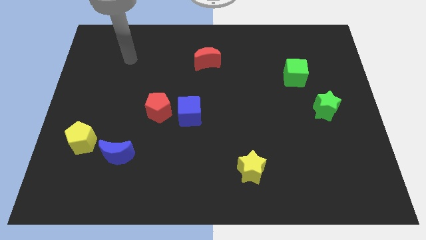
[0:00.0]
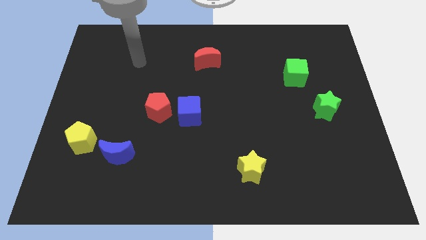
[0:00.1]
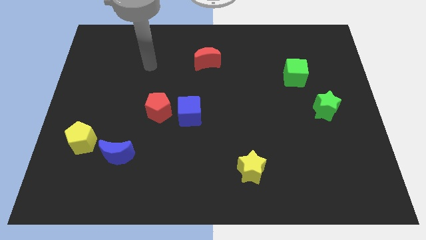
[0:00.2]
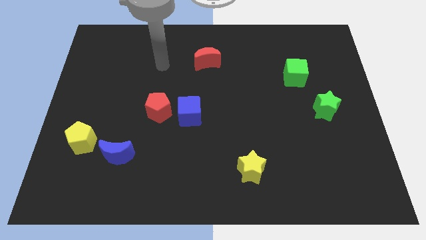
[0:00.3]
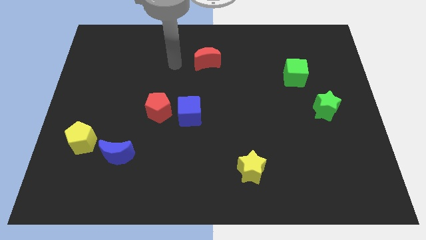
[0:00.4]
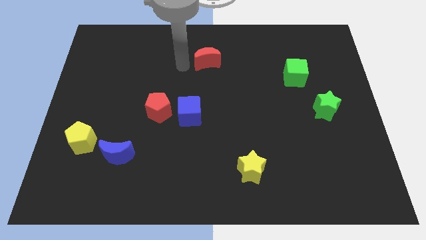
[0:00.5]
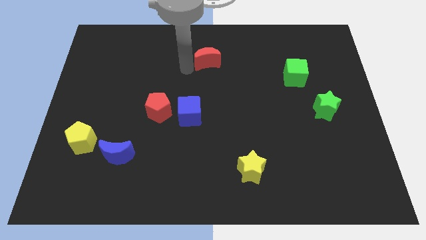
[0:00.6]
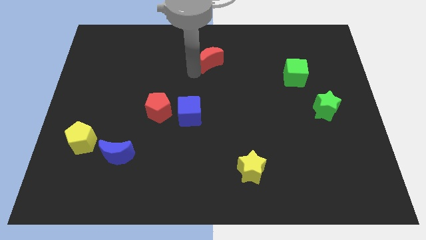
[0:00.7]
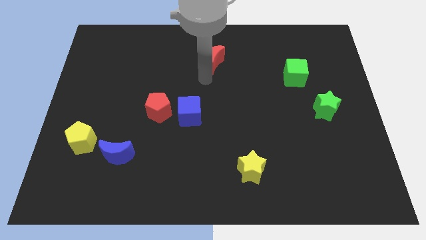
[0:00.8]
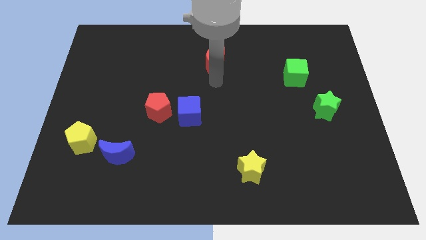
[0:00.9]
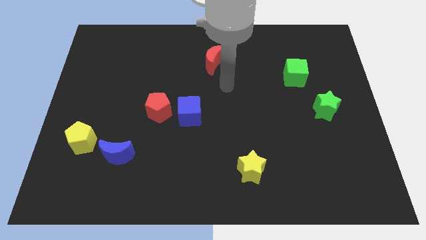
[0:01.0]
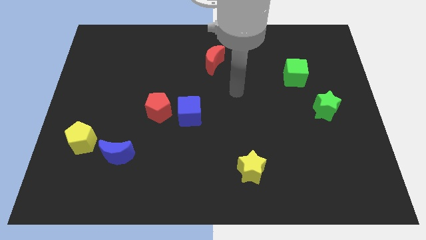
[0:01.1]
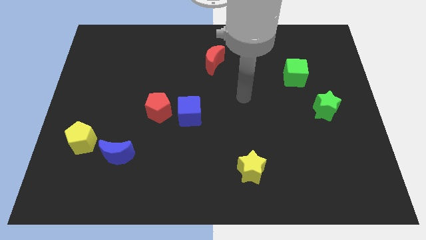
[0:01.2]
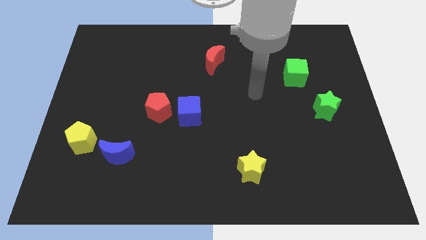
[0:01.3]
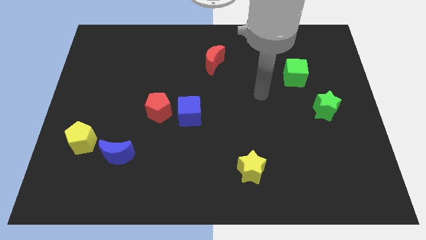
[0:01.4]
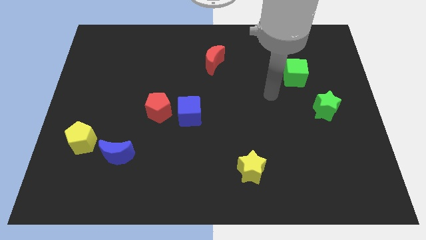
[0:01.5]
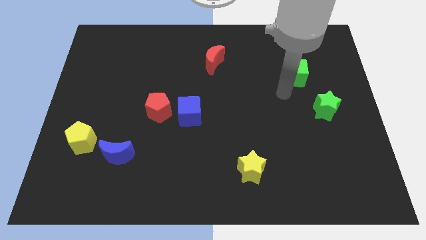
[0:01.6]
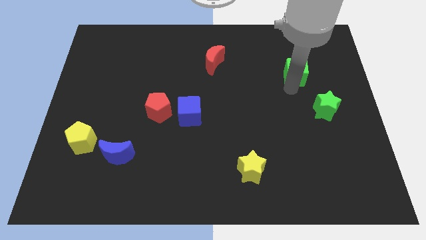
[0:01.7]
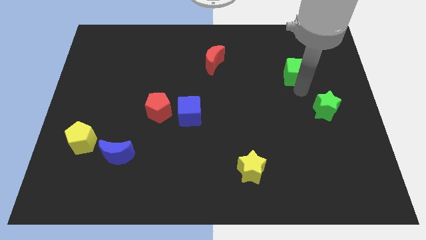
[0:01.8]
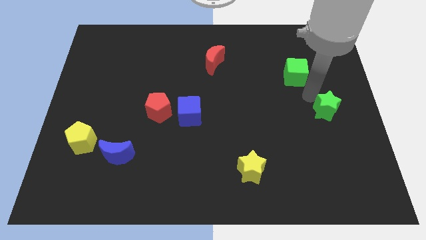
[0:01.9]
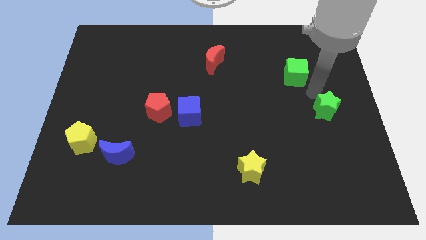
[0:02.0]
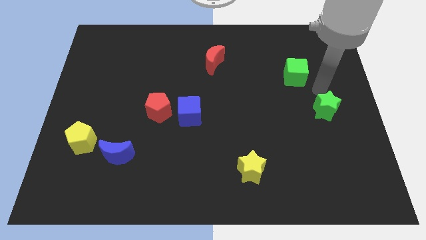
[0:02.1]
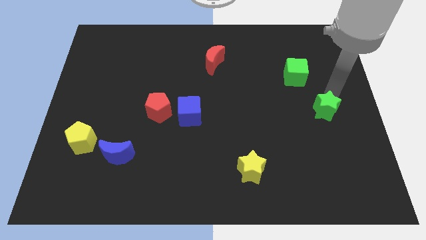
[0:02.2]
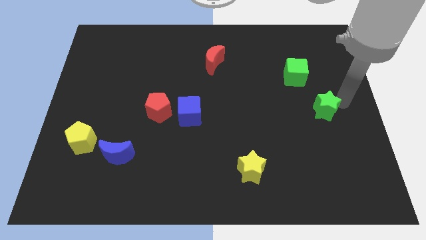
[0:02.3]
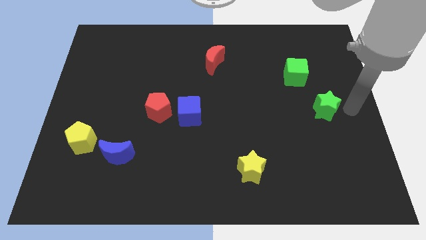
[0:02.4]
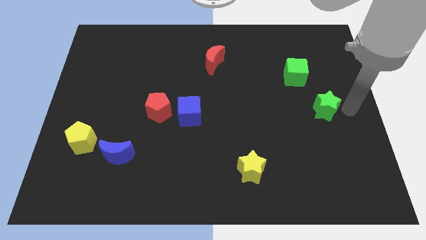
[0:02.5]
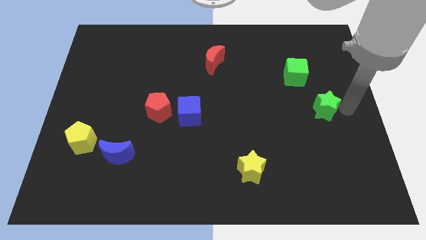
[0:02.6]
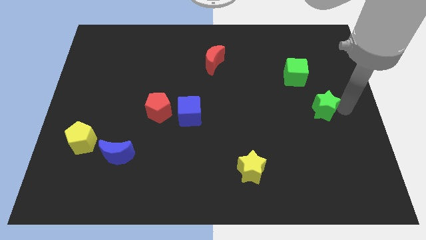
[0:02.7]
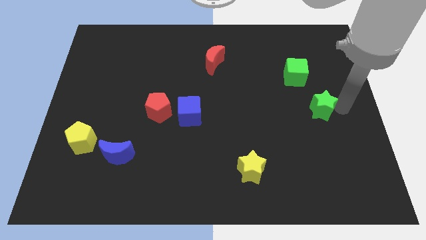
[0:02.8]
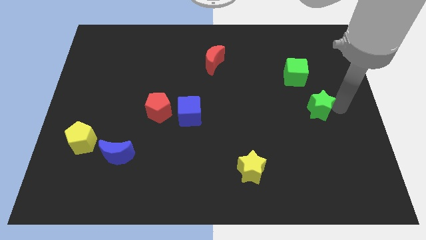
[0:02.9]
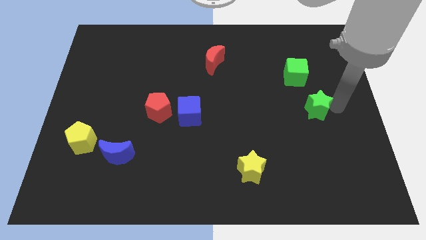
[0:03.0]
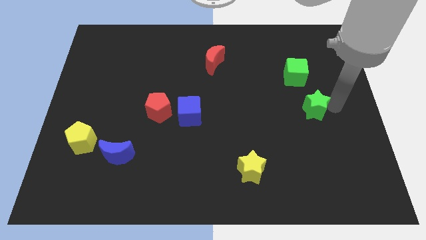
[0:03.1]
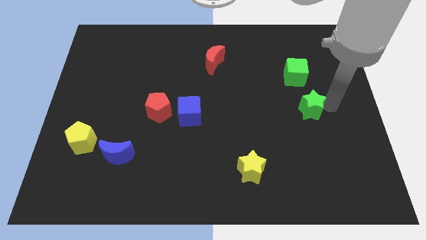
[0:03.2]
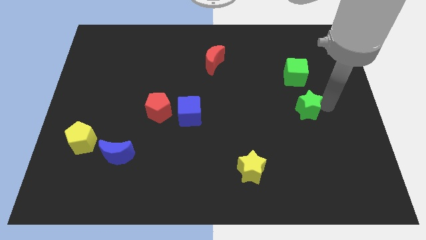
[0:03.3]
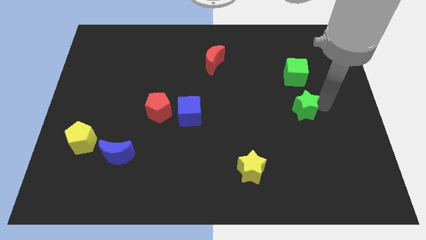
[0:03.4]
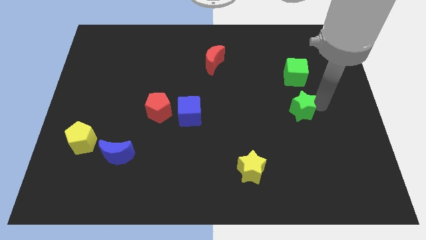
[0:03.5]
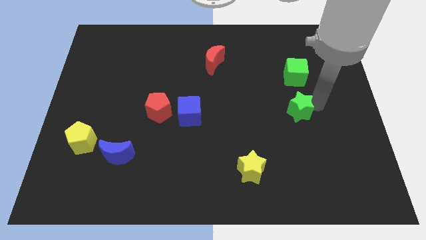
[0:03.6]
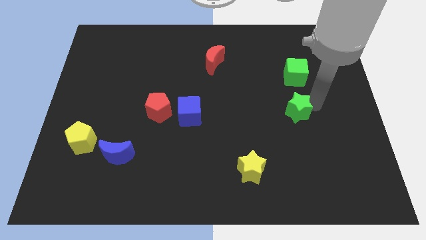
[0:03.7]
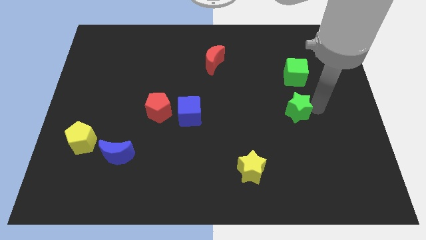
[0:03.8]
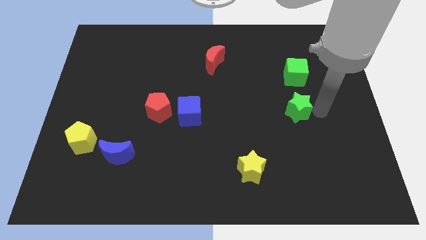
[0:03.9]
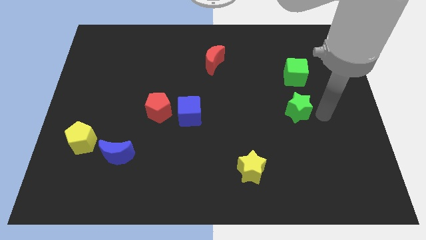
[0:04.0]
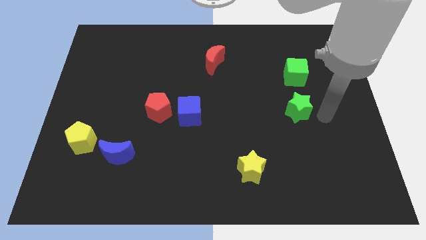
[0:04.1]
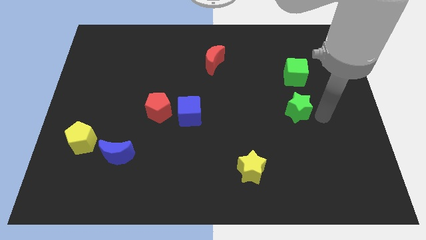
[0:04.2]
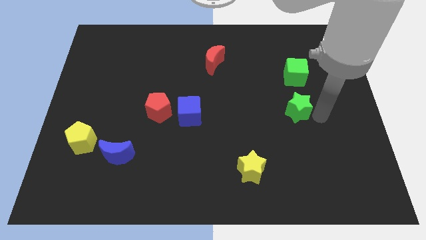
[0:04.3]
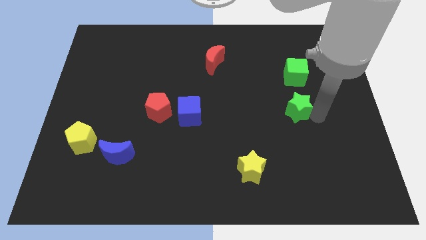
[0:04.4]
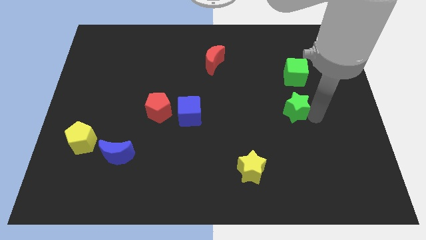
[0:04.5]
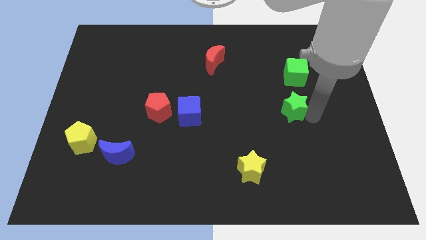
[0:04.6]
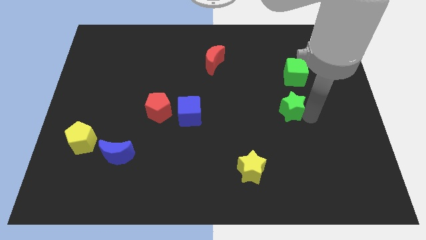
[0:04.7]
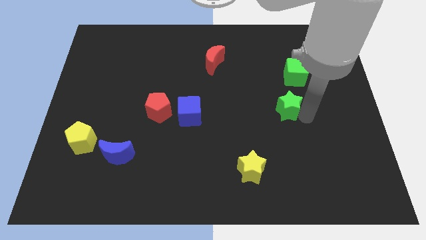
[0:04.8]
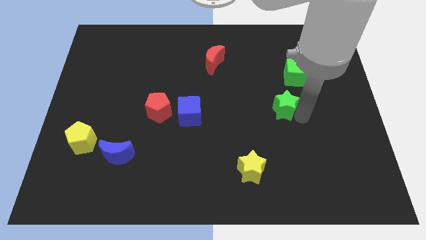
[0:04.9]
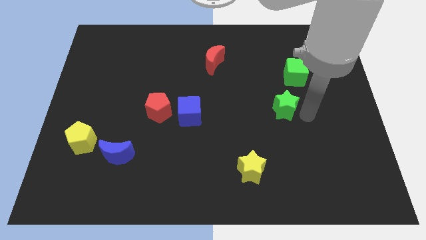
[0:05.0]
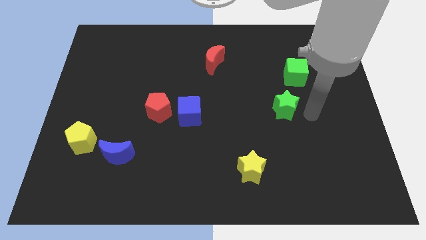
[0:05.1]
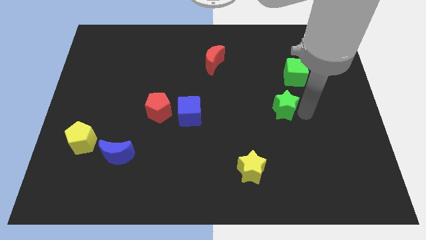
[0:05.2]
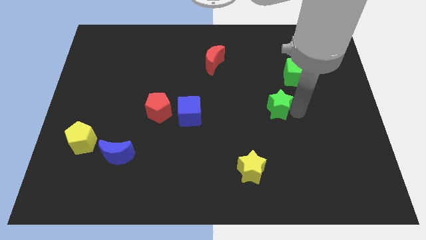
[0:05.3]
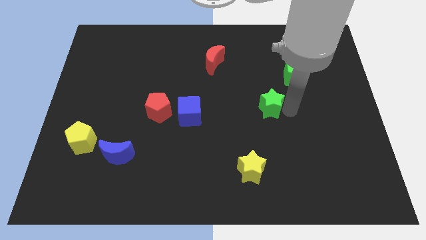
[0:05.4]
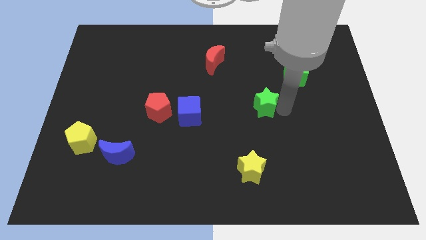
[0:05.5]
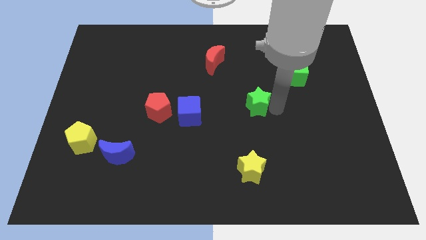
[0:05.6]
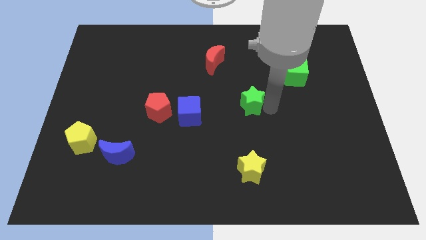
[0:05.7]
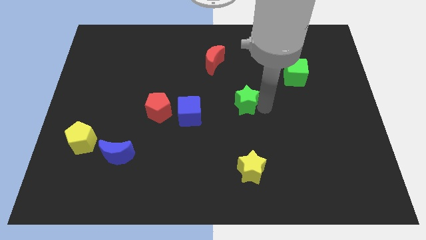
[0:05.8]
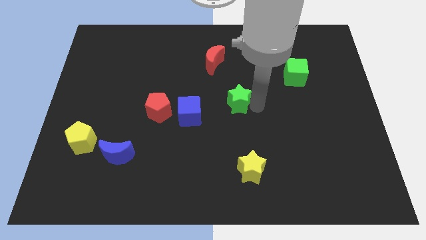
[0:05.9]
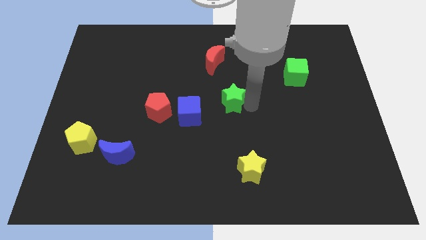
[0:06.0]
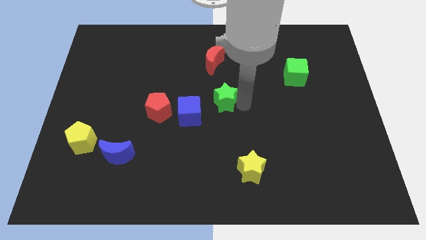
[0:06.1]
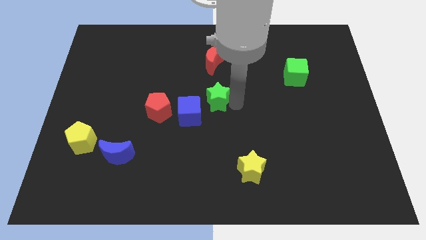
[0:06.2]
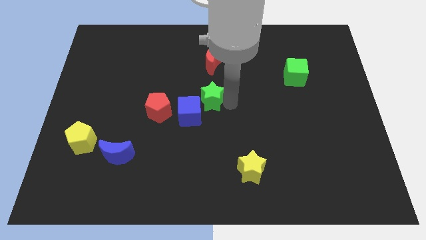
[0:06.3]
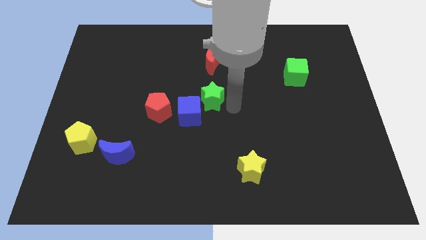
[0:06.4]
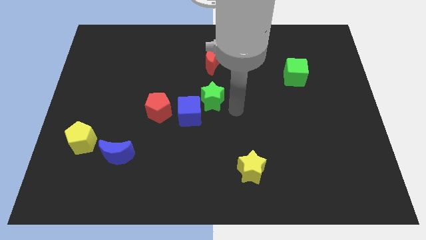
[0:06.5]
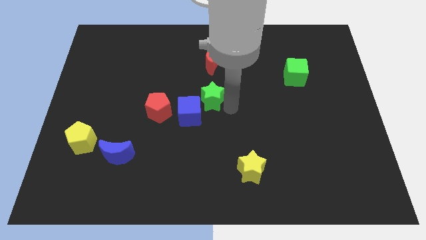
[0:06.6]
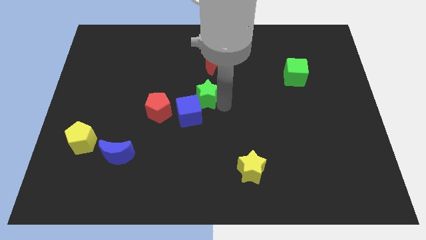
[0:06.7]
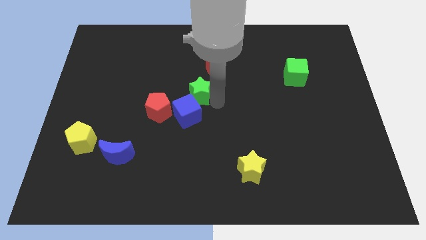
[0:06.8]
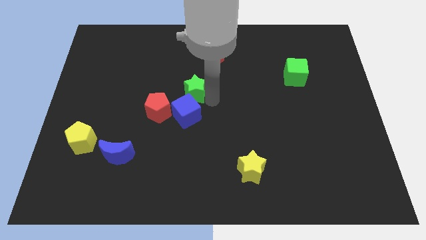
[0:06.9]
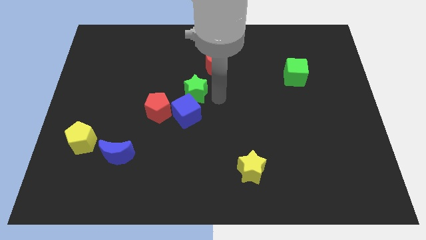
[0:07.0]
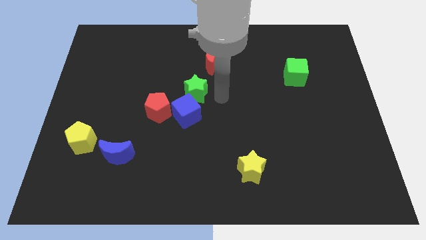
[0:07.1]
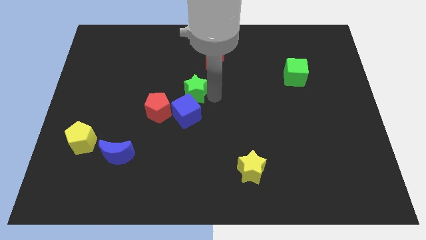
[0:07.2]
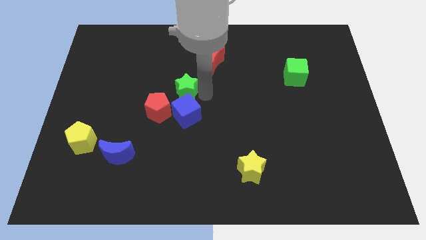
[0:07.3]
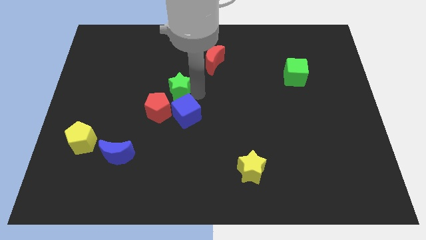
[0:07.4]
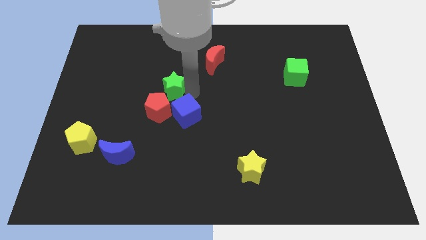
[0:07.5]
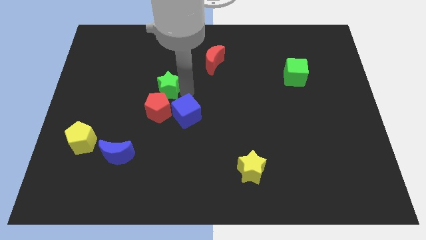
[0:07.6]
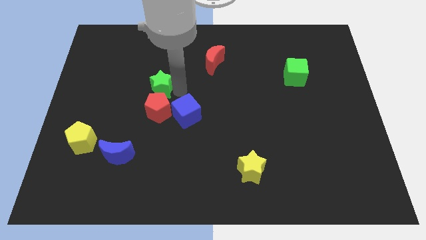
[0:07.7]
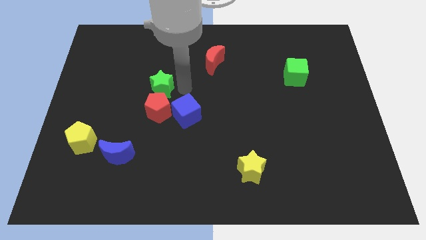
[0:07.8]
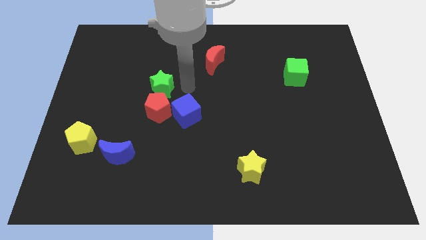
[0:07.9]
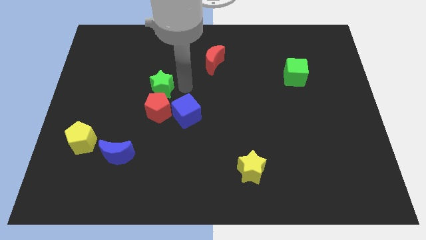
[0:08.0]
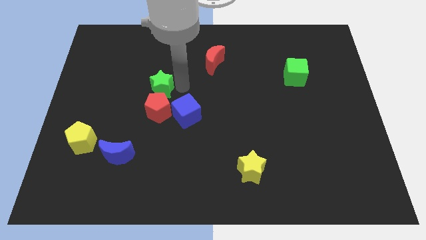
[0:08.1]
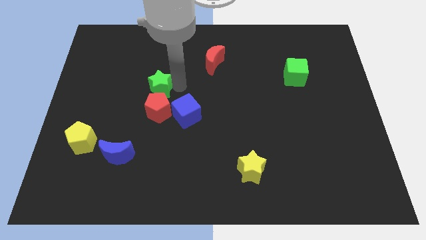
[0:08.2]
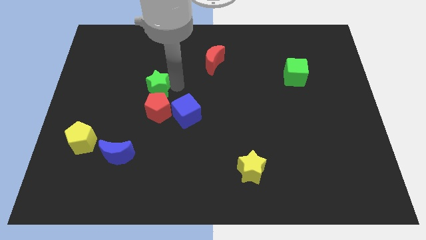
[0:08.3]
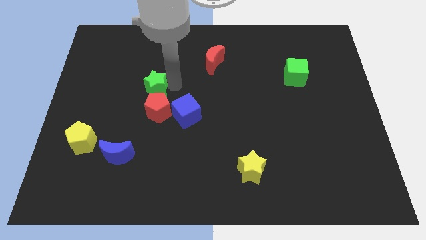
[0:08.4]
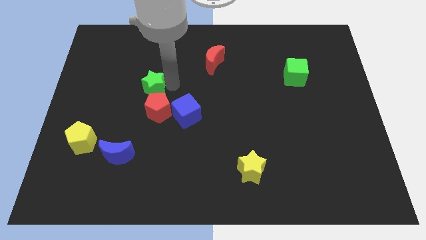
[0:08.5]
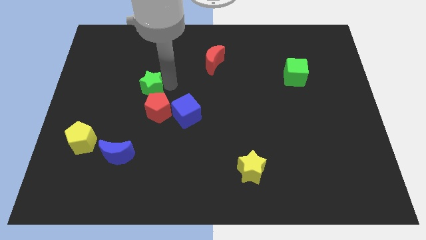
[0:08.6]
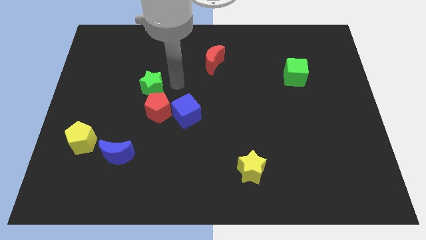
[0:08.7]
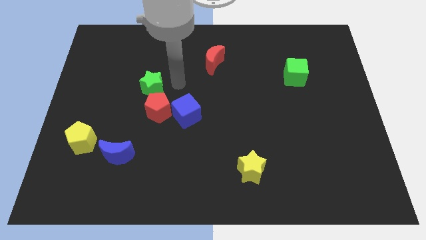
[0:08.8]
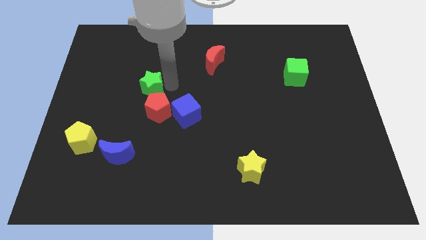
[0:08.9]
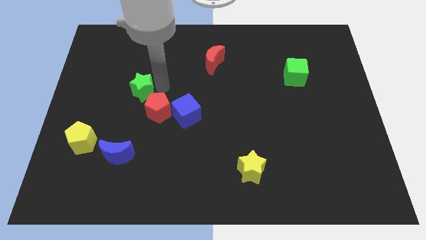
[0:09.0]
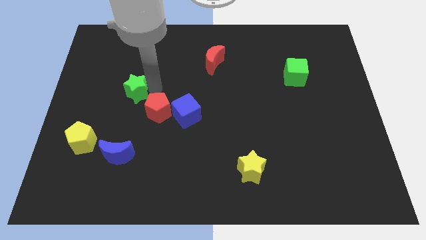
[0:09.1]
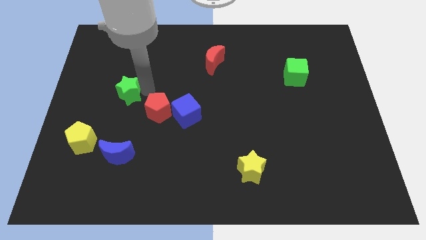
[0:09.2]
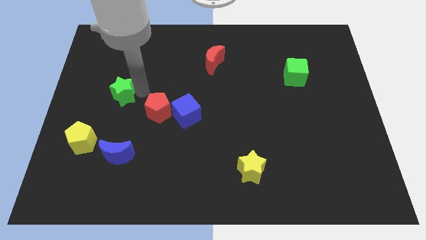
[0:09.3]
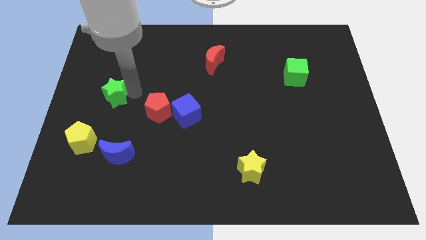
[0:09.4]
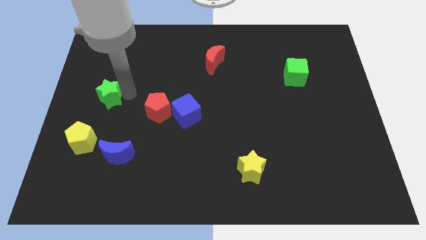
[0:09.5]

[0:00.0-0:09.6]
move the green star to the center left
